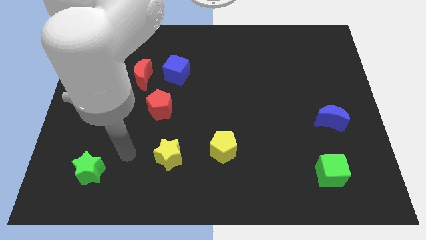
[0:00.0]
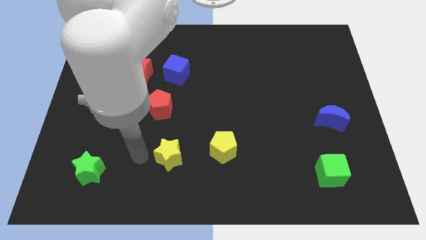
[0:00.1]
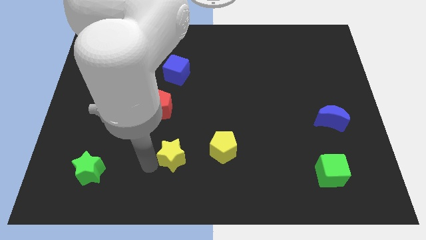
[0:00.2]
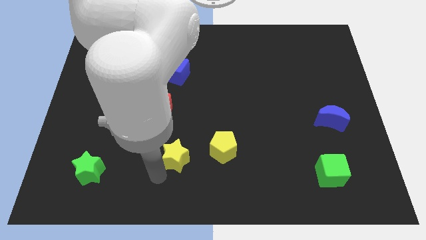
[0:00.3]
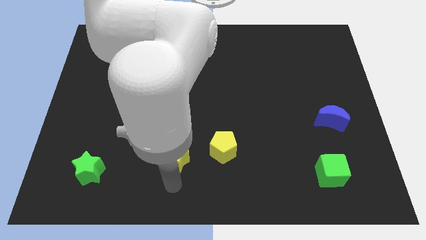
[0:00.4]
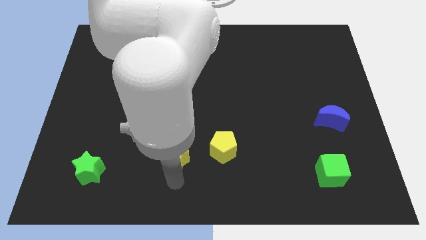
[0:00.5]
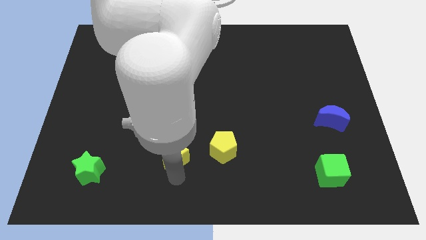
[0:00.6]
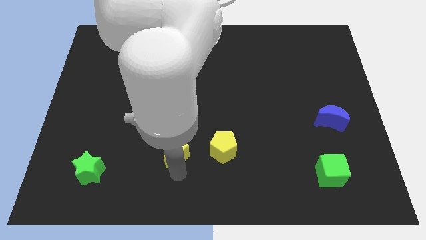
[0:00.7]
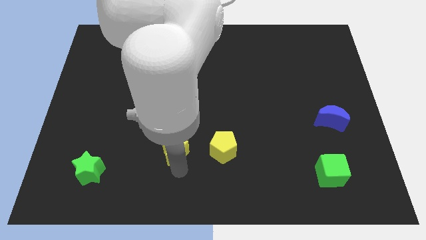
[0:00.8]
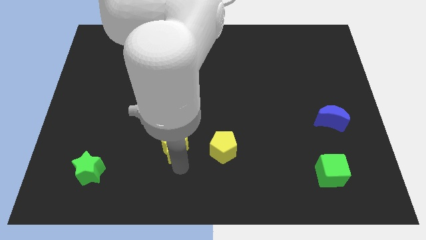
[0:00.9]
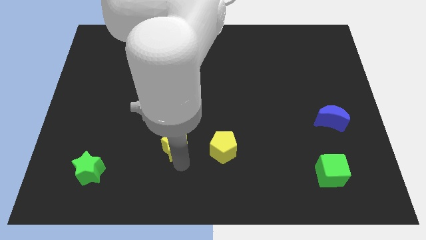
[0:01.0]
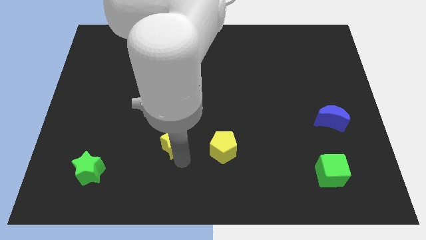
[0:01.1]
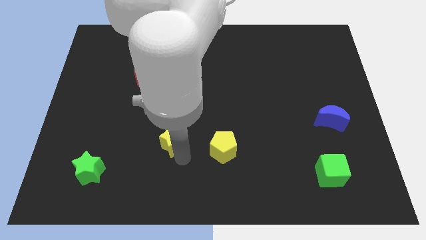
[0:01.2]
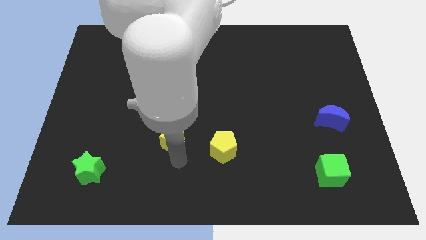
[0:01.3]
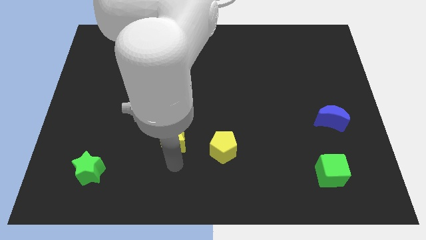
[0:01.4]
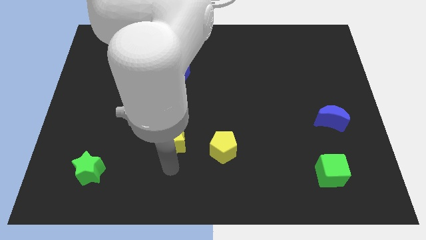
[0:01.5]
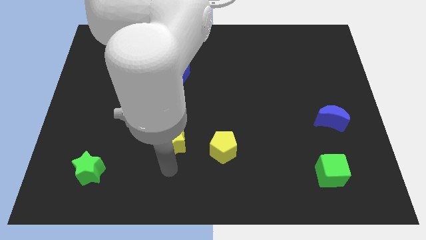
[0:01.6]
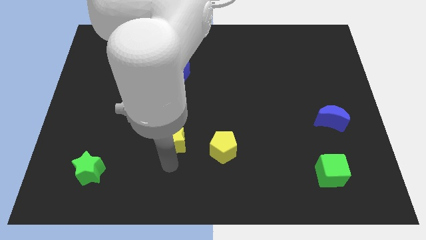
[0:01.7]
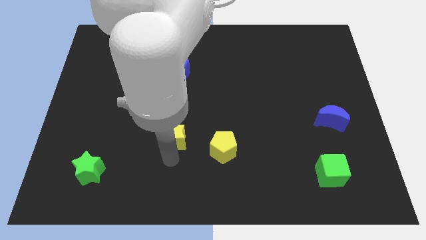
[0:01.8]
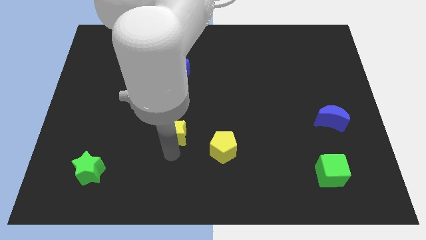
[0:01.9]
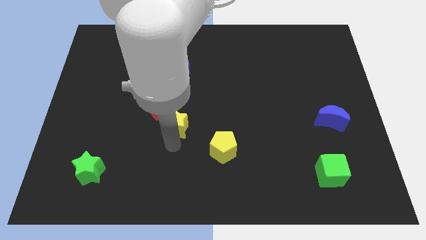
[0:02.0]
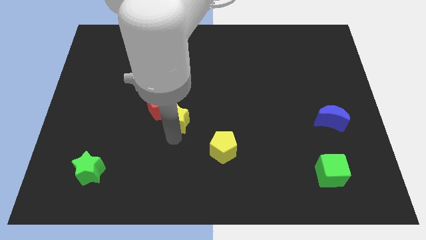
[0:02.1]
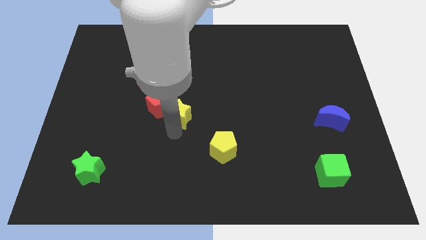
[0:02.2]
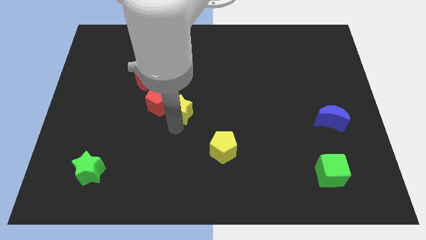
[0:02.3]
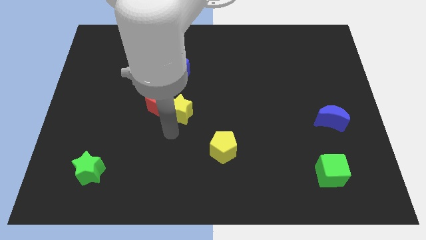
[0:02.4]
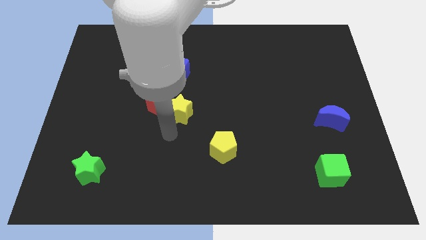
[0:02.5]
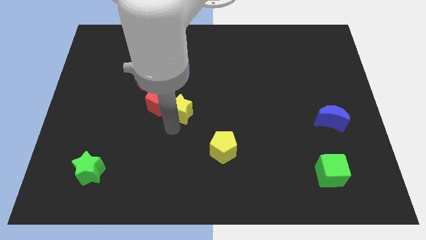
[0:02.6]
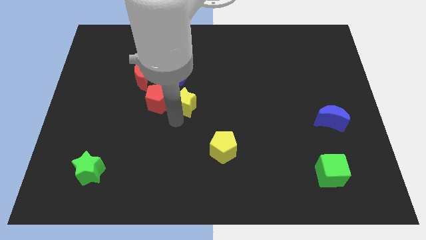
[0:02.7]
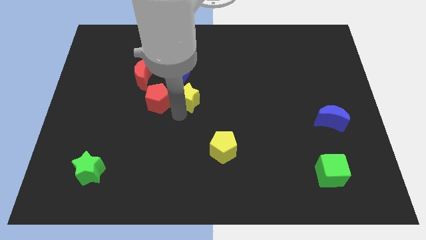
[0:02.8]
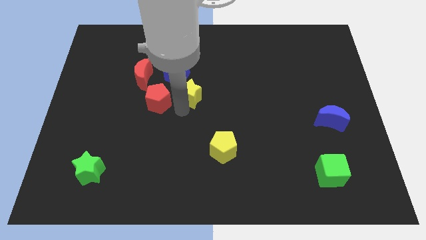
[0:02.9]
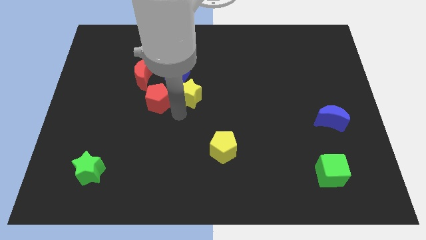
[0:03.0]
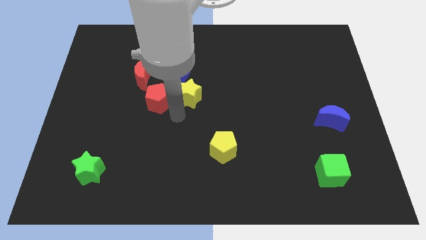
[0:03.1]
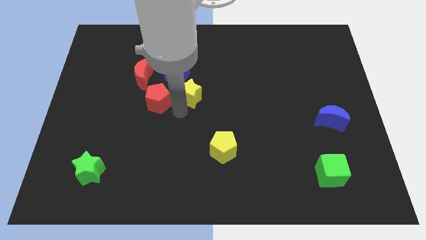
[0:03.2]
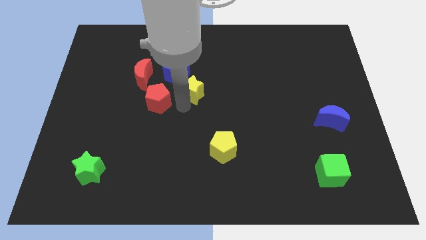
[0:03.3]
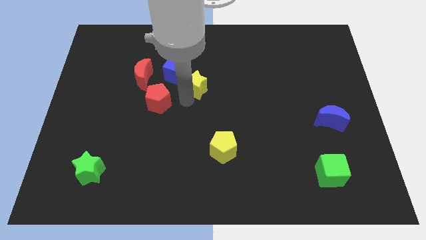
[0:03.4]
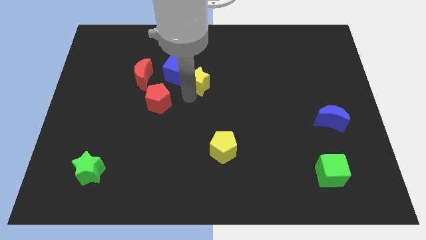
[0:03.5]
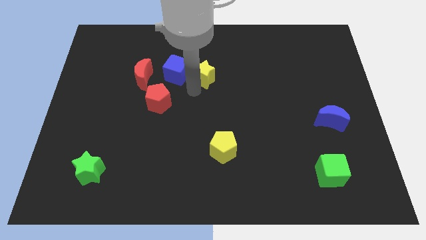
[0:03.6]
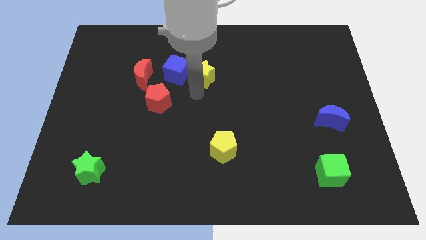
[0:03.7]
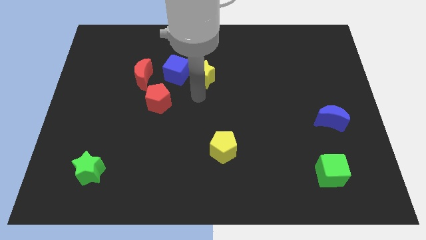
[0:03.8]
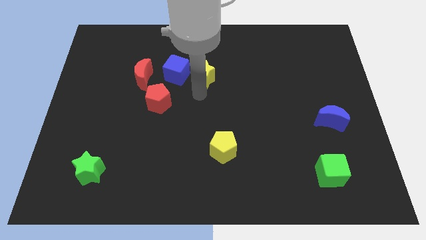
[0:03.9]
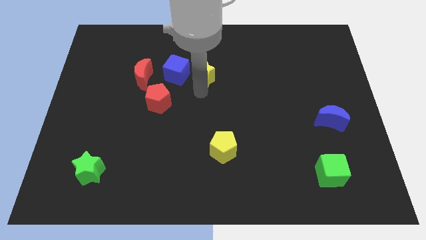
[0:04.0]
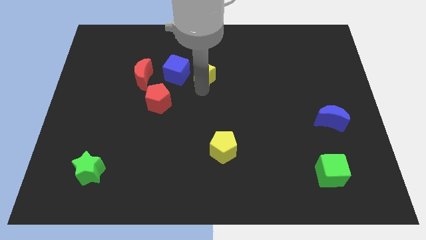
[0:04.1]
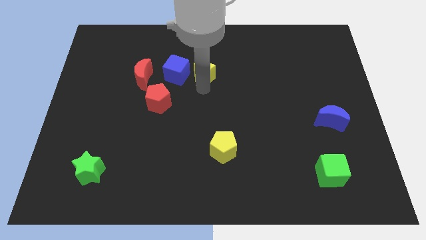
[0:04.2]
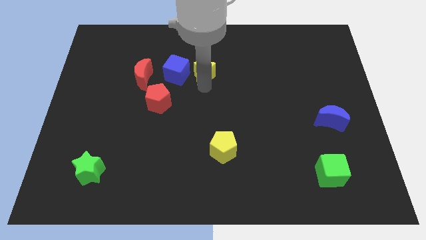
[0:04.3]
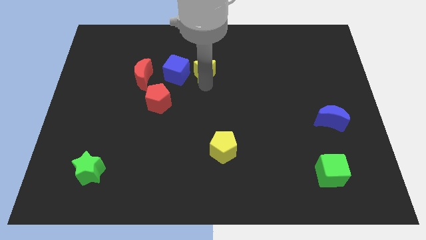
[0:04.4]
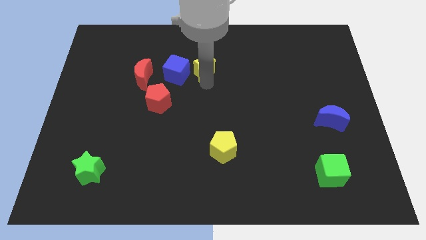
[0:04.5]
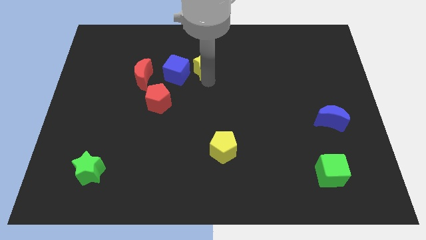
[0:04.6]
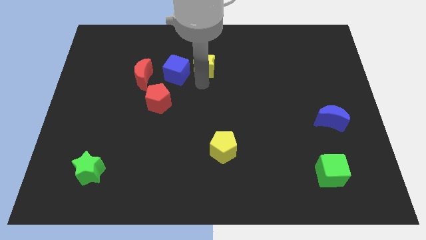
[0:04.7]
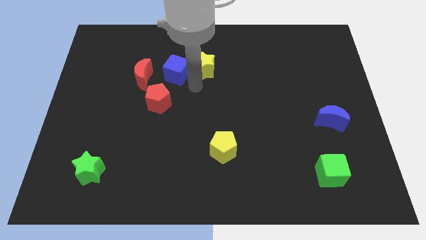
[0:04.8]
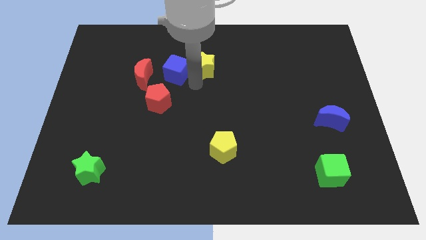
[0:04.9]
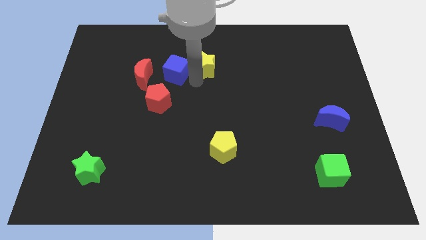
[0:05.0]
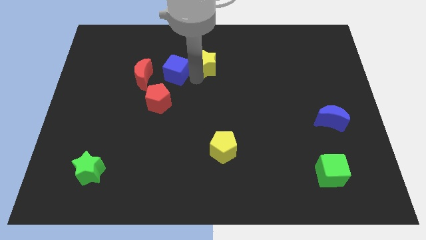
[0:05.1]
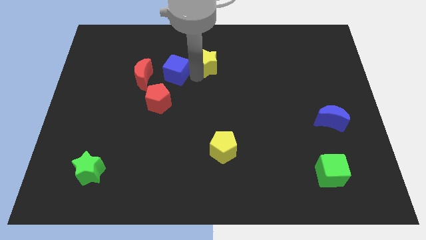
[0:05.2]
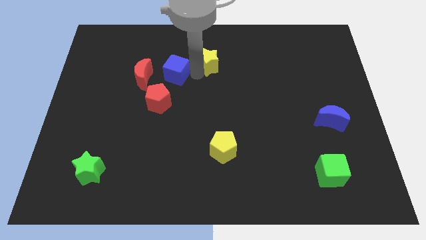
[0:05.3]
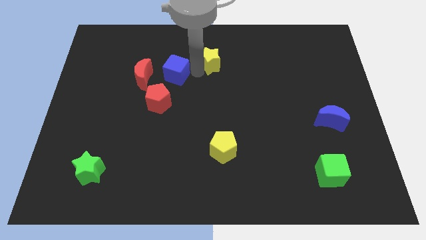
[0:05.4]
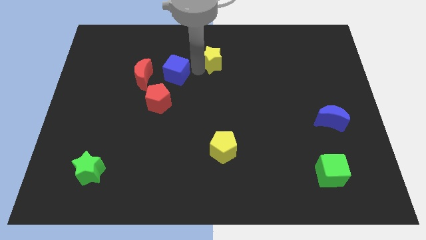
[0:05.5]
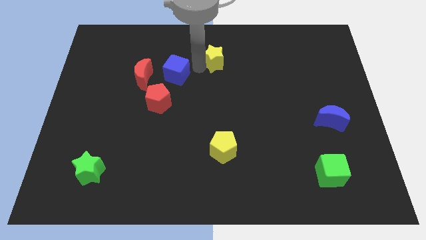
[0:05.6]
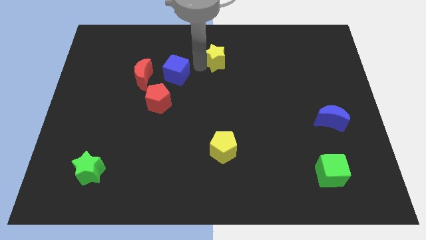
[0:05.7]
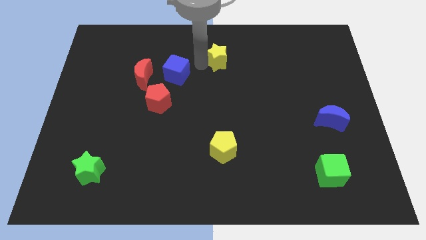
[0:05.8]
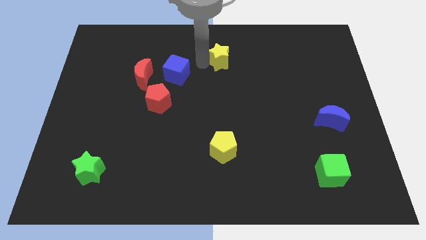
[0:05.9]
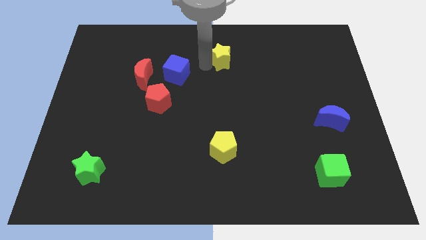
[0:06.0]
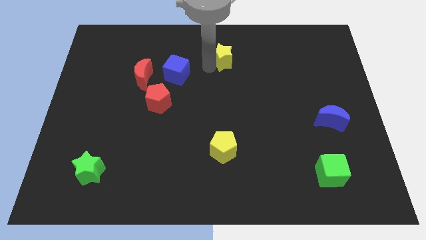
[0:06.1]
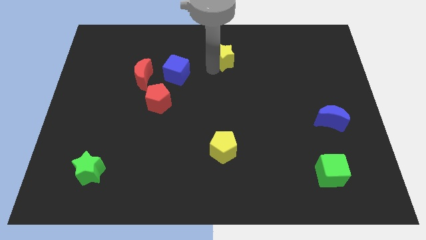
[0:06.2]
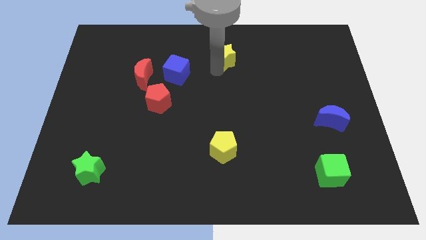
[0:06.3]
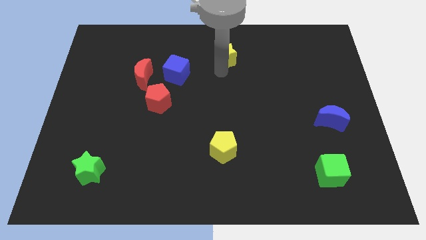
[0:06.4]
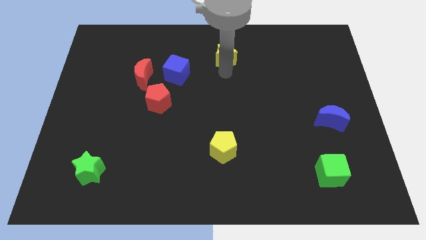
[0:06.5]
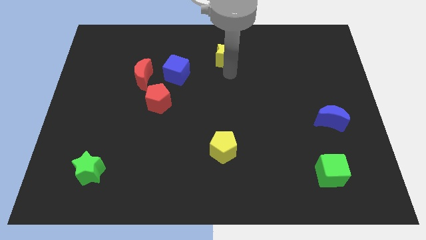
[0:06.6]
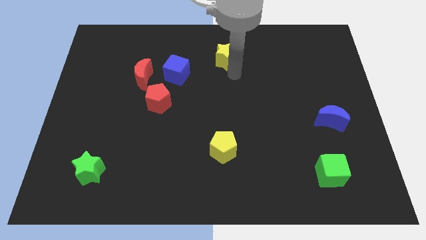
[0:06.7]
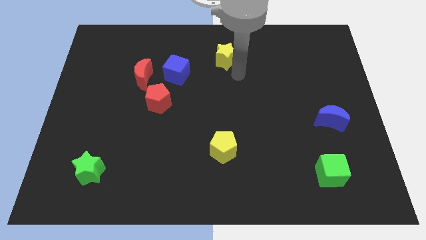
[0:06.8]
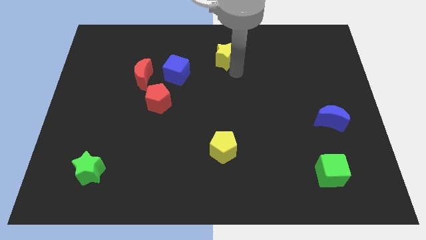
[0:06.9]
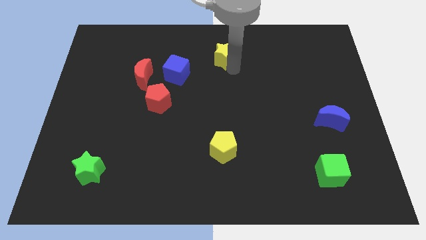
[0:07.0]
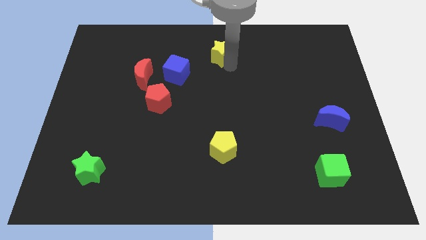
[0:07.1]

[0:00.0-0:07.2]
move the yellow star to the top
